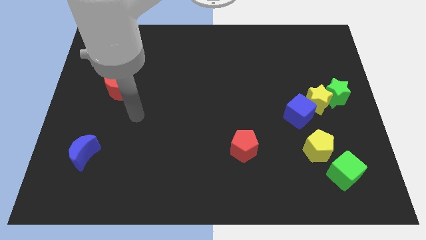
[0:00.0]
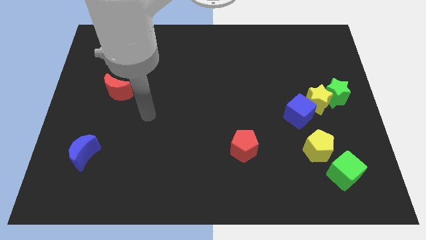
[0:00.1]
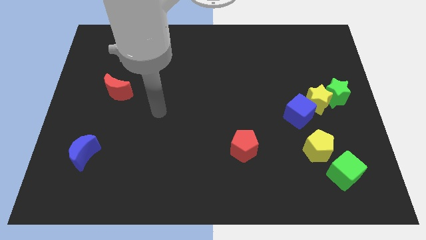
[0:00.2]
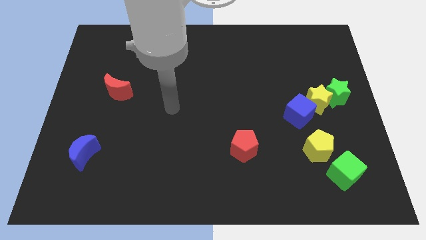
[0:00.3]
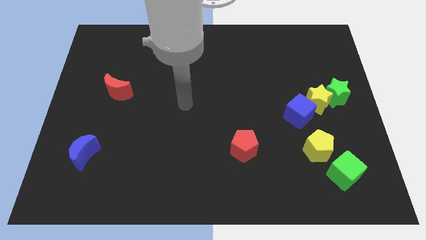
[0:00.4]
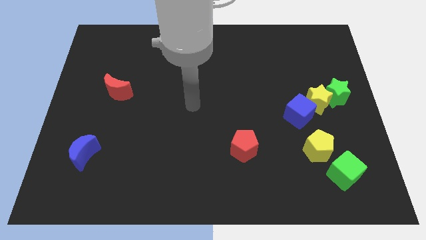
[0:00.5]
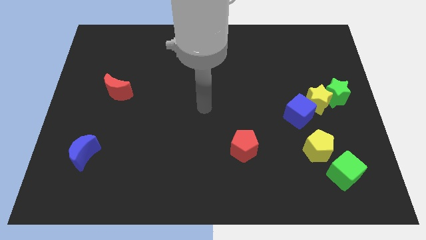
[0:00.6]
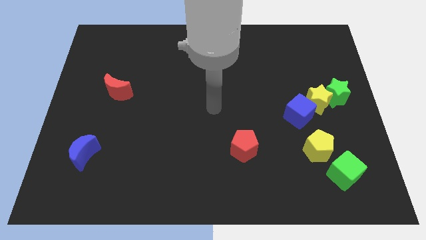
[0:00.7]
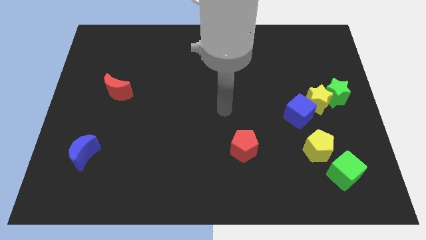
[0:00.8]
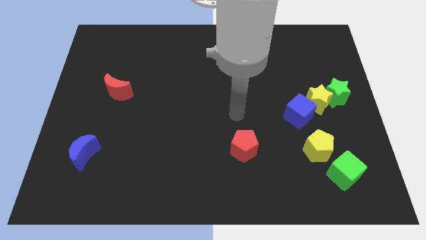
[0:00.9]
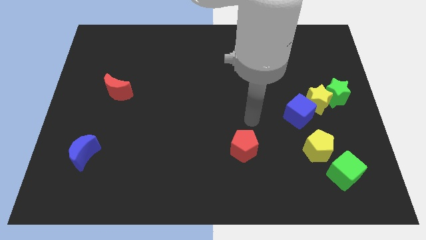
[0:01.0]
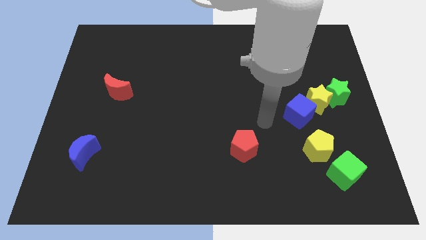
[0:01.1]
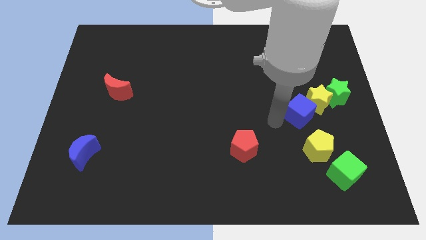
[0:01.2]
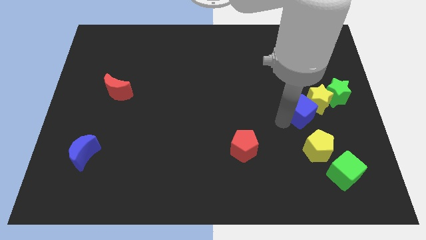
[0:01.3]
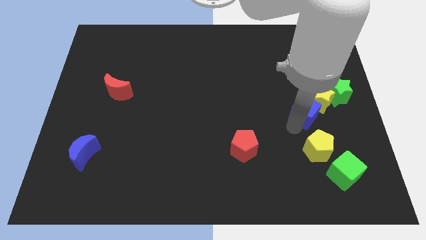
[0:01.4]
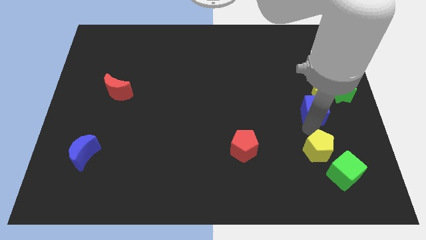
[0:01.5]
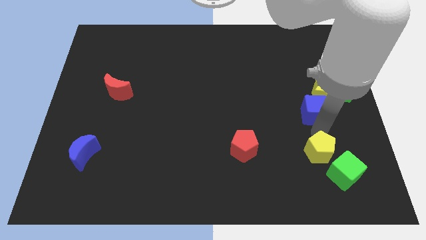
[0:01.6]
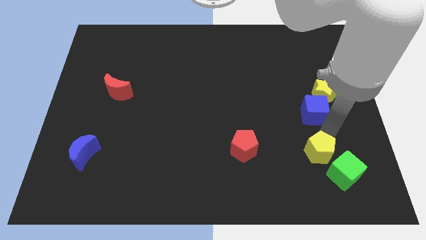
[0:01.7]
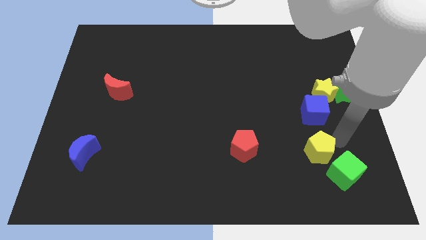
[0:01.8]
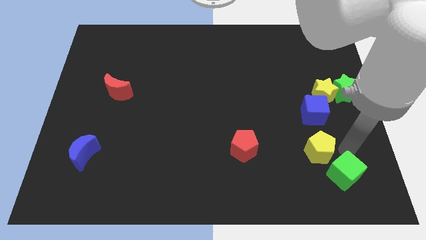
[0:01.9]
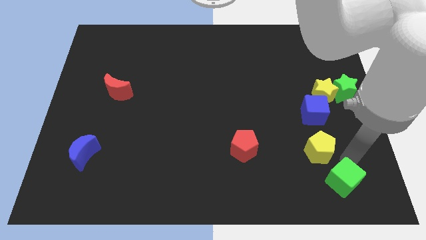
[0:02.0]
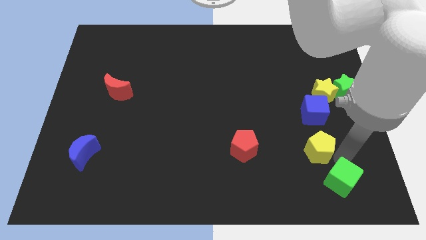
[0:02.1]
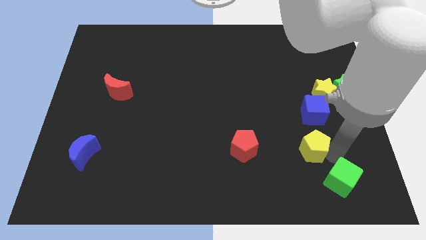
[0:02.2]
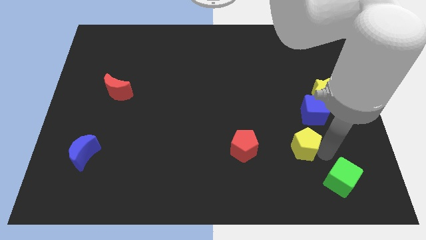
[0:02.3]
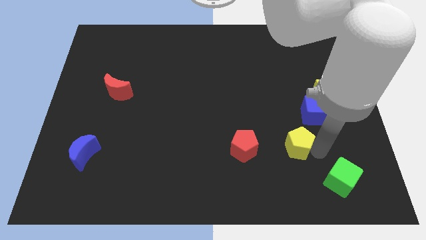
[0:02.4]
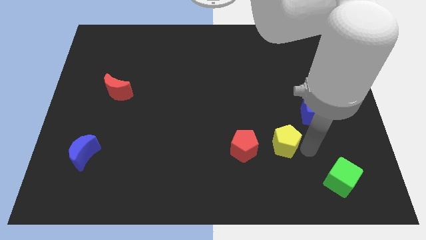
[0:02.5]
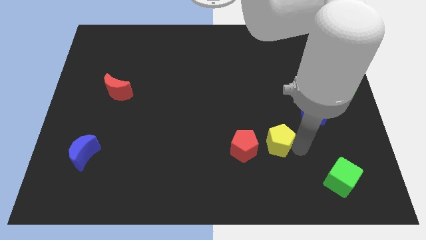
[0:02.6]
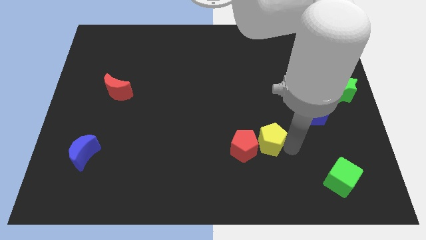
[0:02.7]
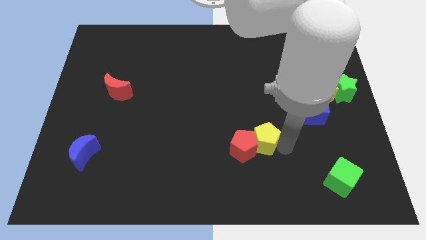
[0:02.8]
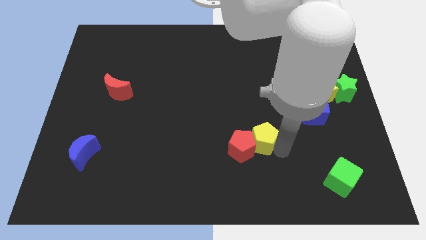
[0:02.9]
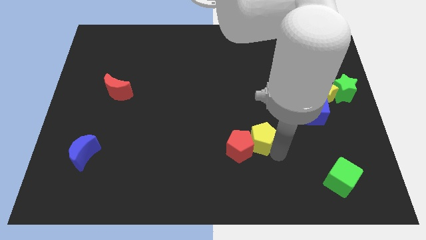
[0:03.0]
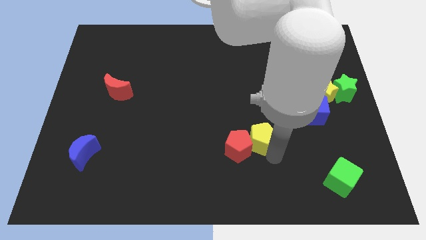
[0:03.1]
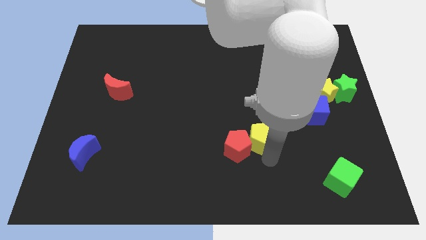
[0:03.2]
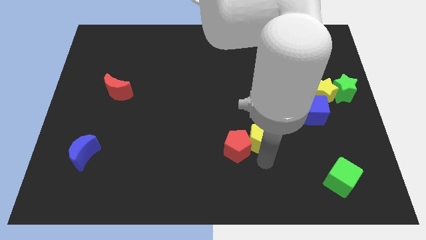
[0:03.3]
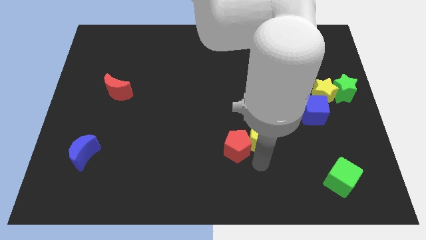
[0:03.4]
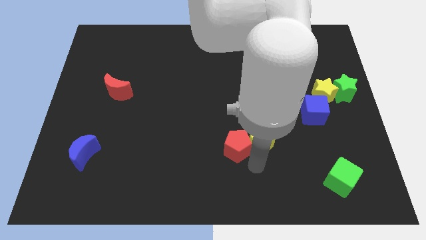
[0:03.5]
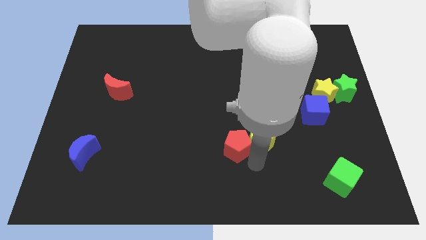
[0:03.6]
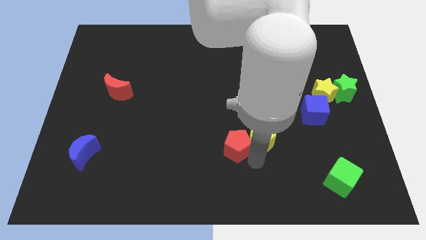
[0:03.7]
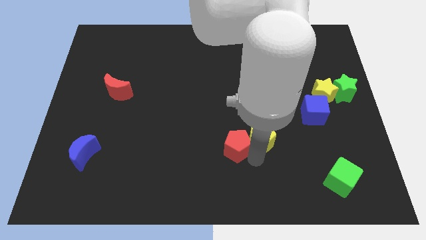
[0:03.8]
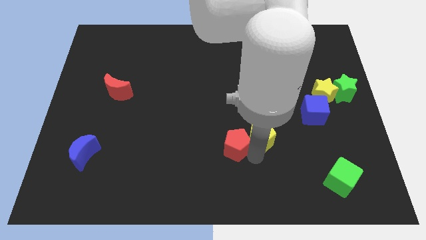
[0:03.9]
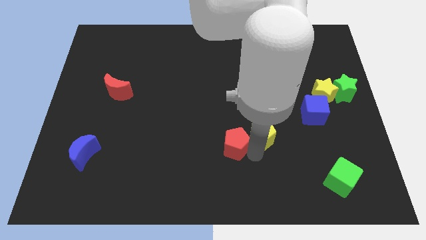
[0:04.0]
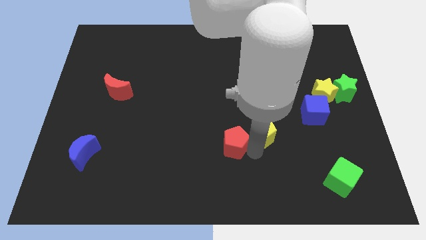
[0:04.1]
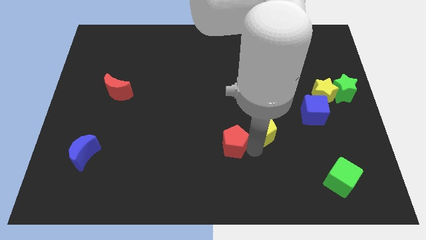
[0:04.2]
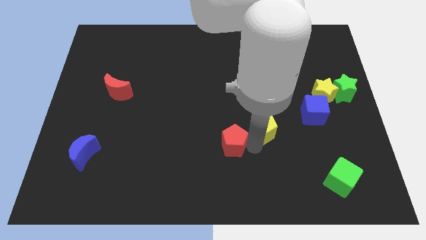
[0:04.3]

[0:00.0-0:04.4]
slide the yellow pentagon to the left side of the blue cube

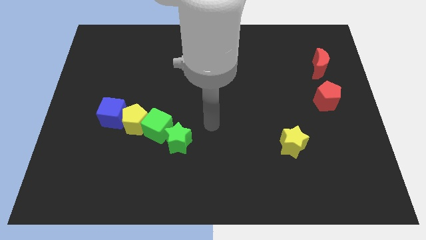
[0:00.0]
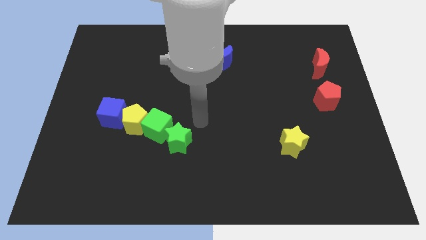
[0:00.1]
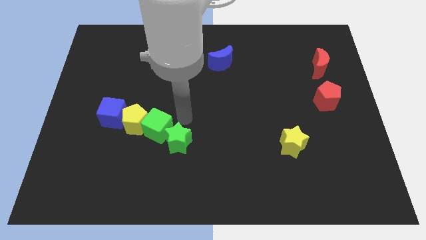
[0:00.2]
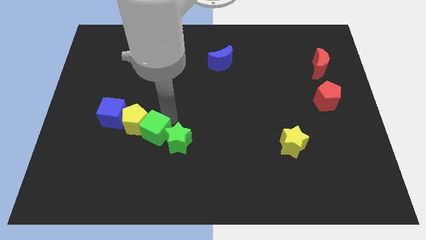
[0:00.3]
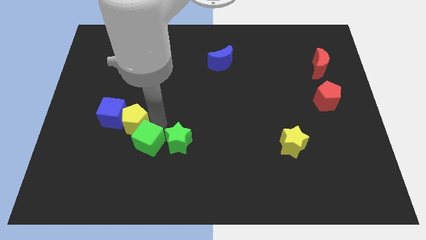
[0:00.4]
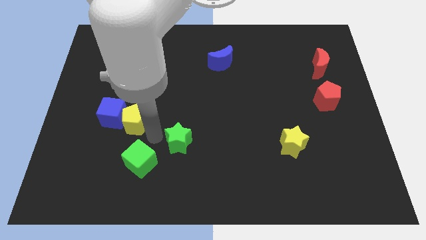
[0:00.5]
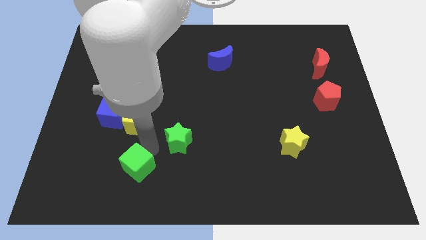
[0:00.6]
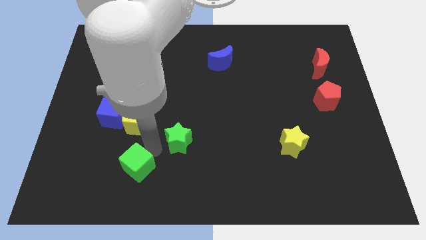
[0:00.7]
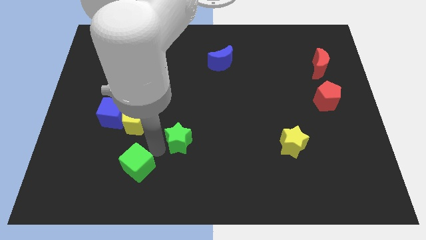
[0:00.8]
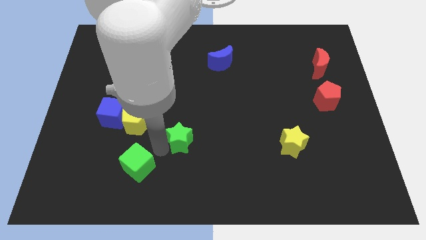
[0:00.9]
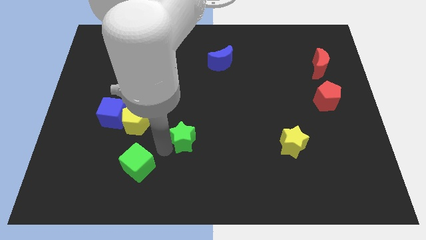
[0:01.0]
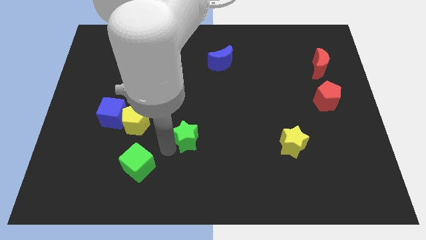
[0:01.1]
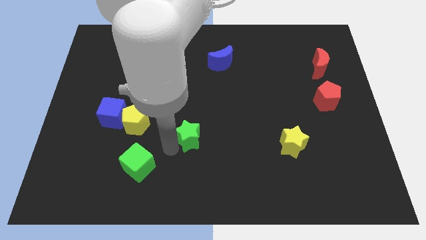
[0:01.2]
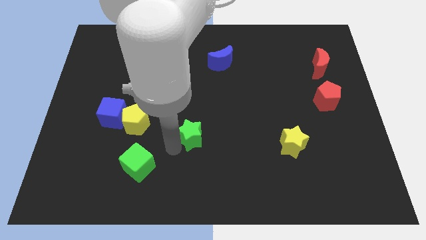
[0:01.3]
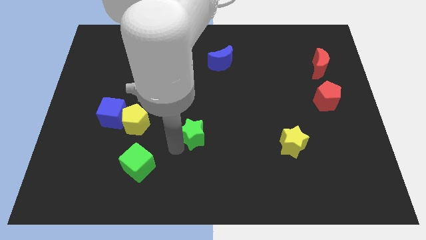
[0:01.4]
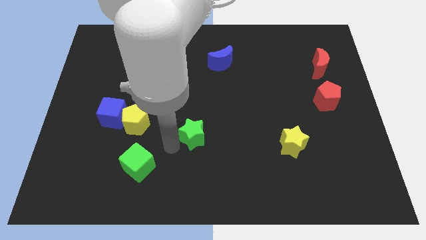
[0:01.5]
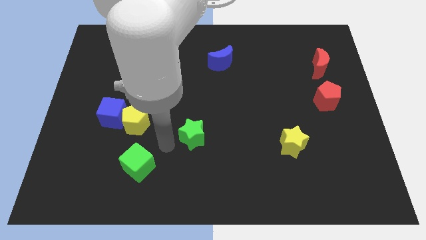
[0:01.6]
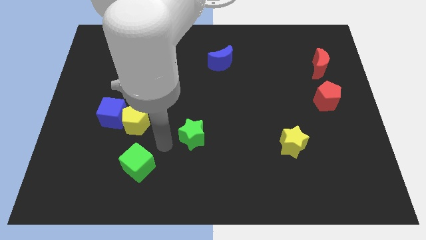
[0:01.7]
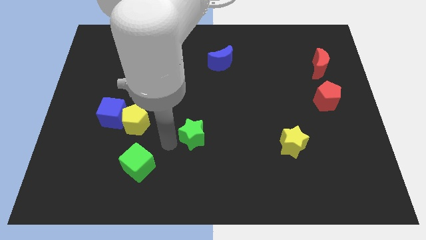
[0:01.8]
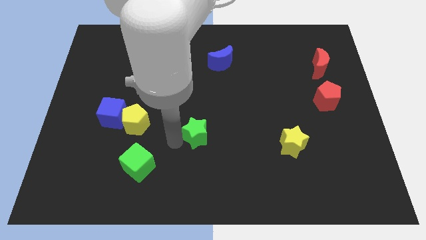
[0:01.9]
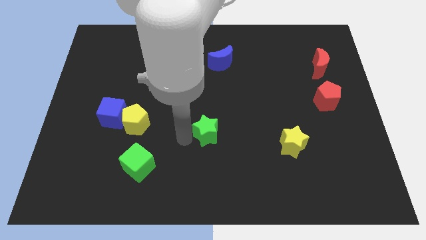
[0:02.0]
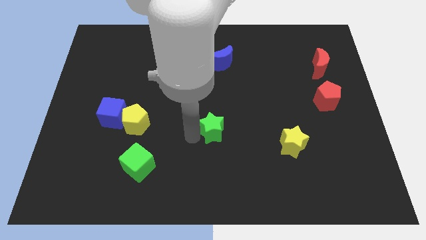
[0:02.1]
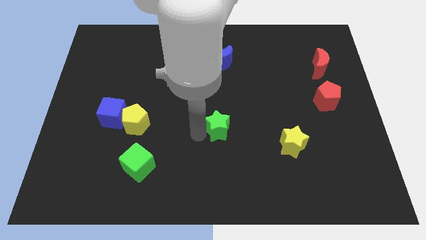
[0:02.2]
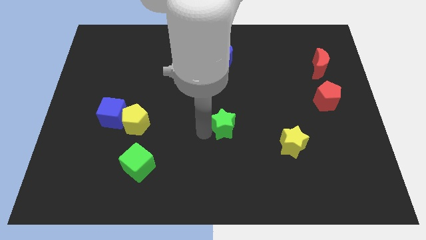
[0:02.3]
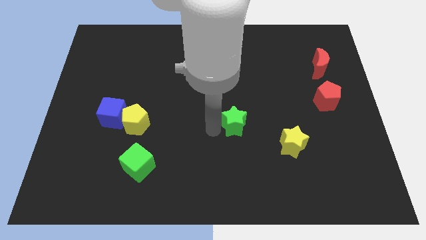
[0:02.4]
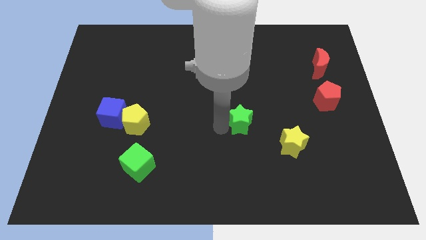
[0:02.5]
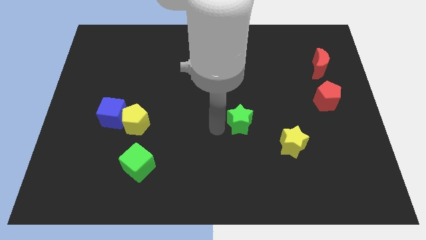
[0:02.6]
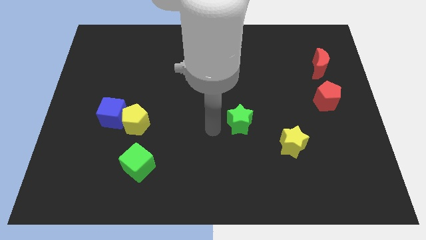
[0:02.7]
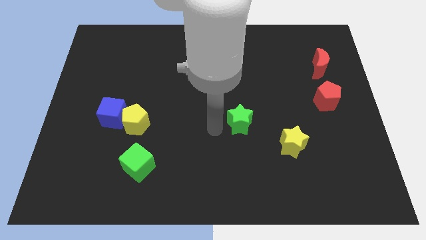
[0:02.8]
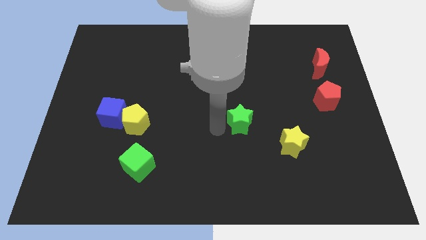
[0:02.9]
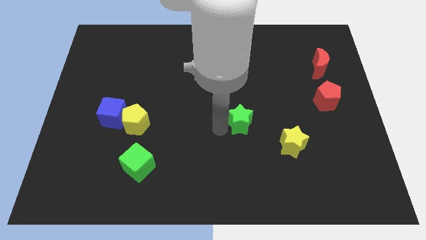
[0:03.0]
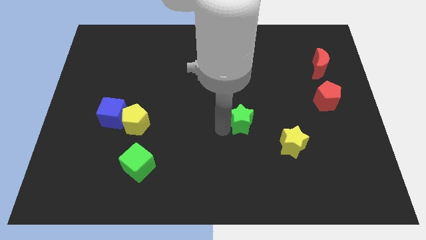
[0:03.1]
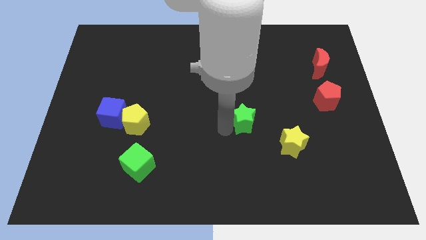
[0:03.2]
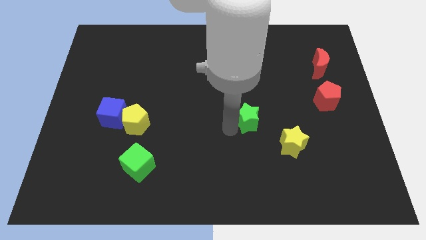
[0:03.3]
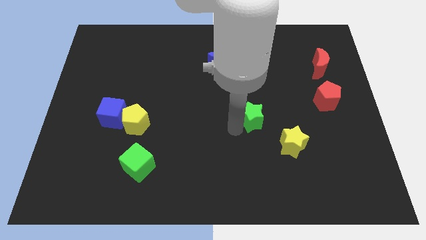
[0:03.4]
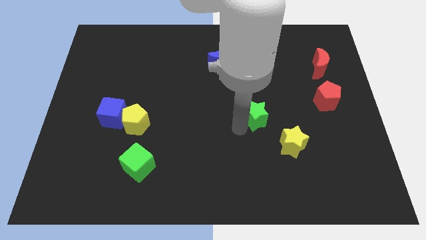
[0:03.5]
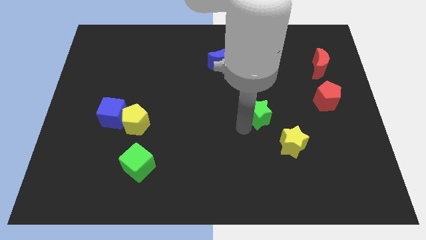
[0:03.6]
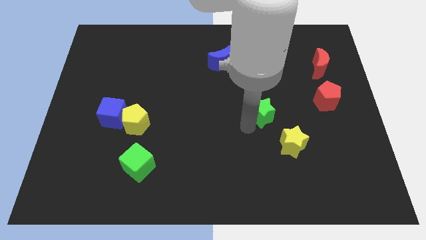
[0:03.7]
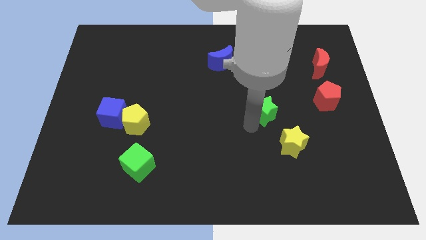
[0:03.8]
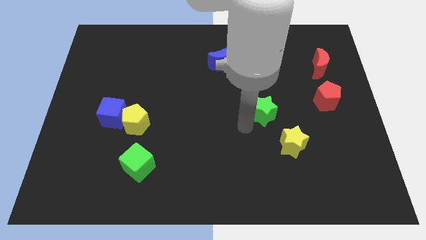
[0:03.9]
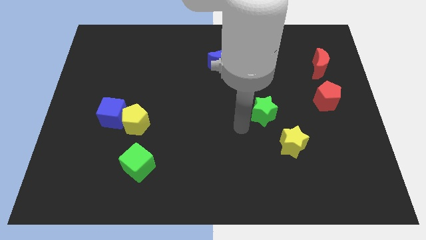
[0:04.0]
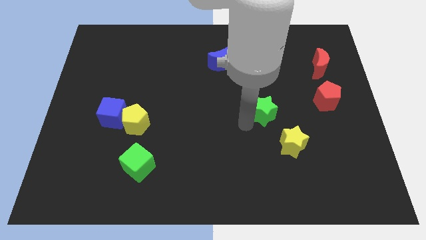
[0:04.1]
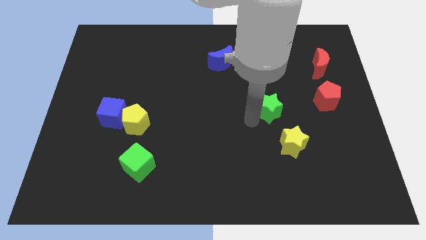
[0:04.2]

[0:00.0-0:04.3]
push the green star just left of the red pentagon
